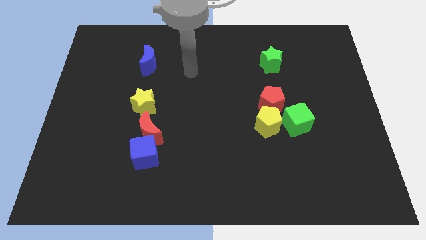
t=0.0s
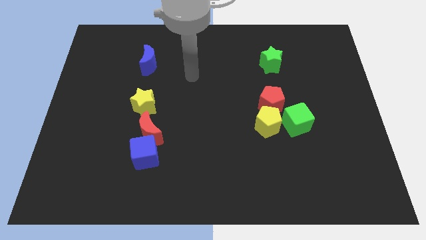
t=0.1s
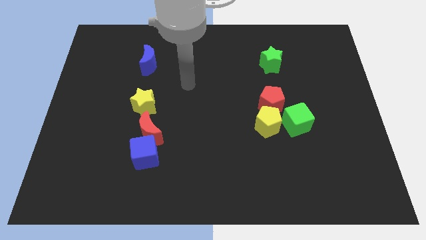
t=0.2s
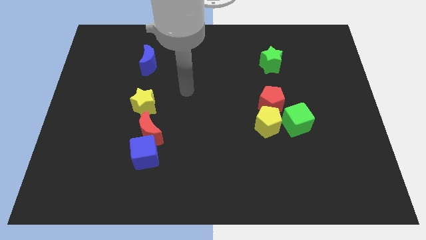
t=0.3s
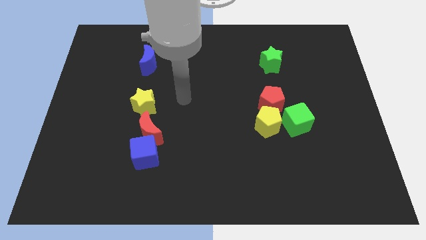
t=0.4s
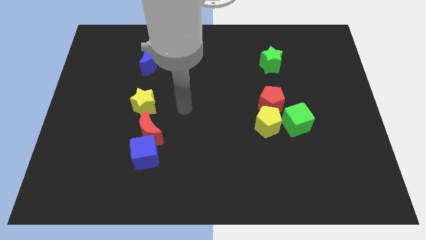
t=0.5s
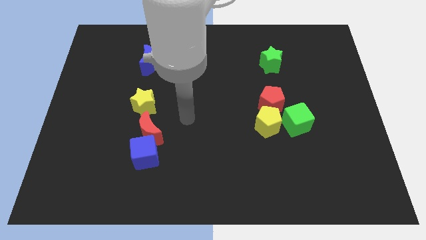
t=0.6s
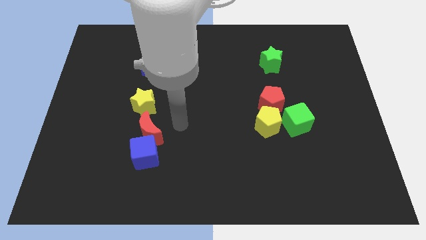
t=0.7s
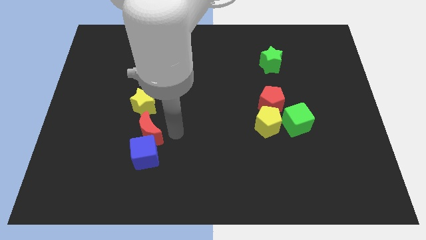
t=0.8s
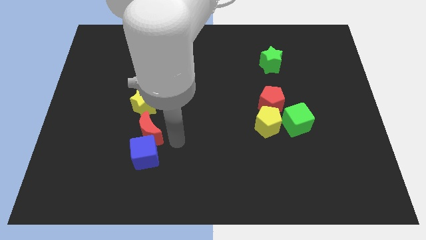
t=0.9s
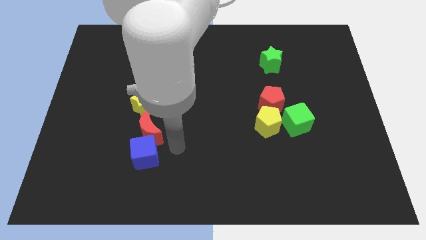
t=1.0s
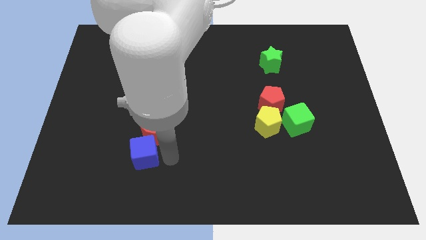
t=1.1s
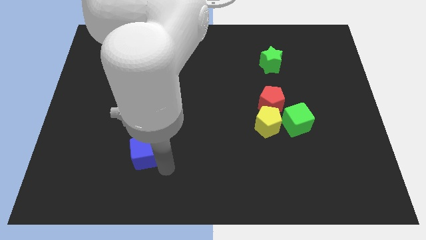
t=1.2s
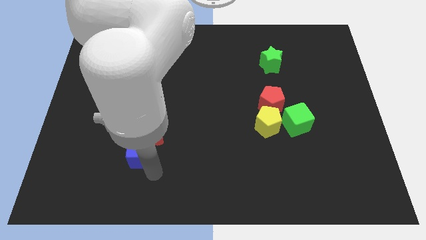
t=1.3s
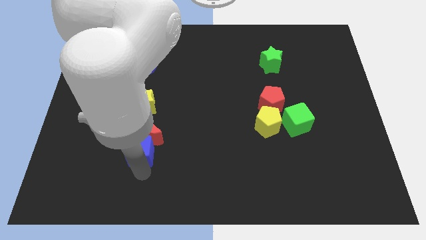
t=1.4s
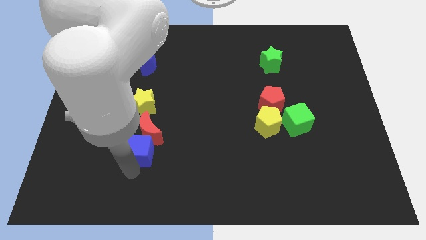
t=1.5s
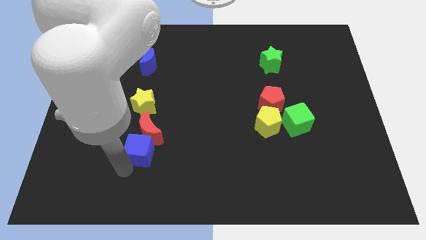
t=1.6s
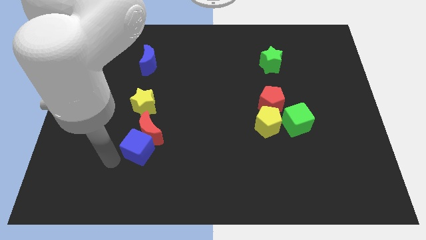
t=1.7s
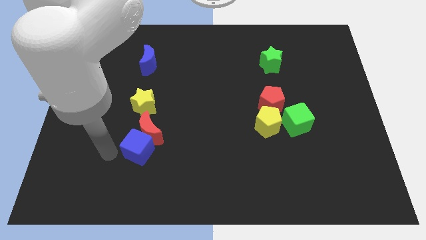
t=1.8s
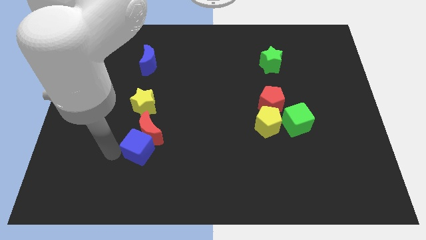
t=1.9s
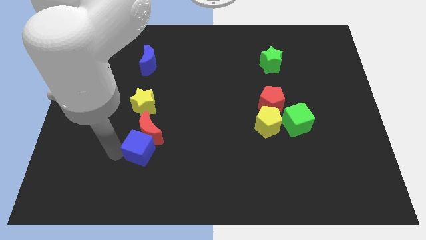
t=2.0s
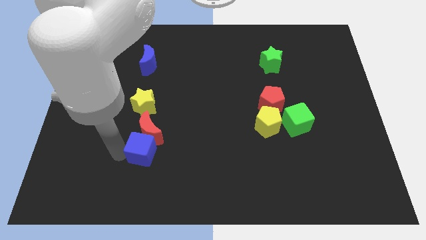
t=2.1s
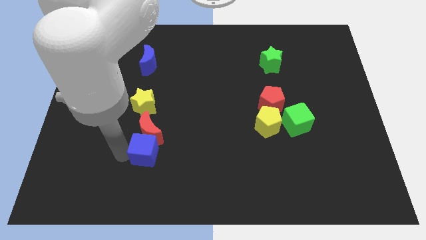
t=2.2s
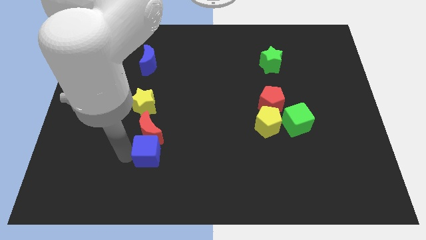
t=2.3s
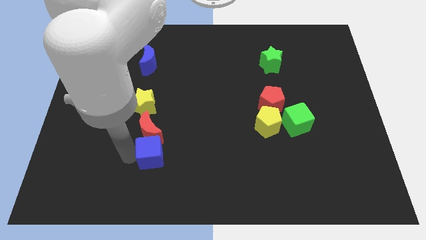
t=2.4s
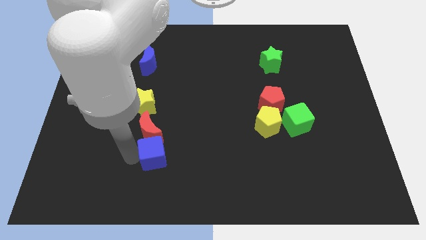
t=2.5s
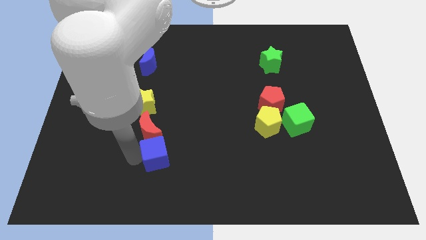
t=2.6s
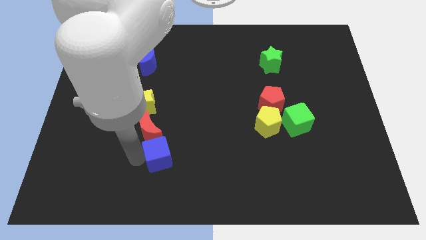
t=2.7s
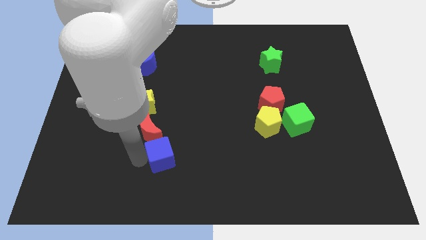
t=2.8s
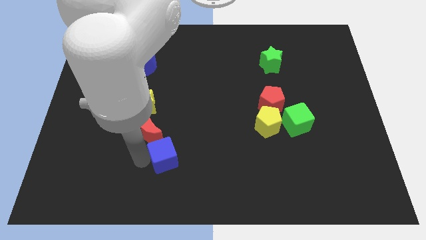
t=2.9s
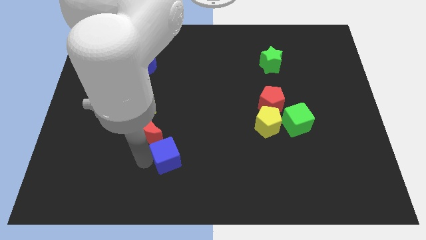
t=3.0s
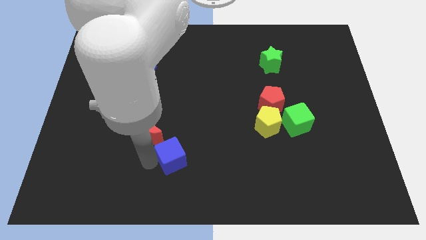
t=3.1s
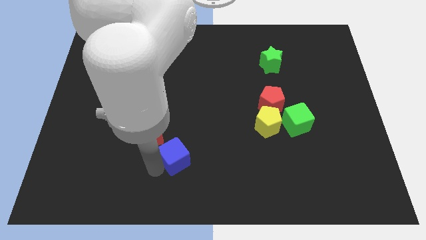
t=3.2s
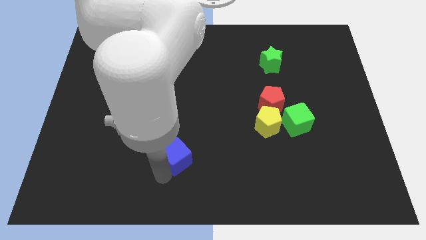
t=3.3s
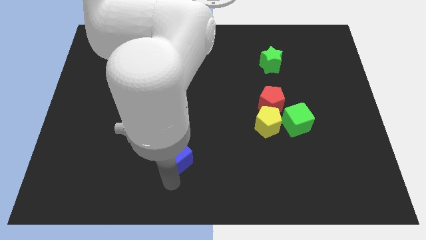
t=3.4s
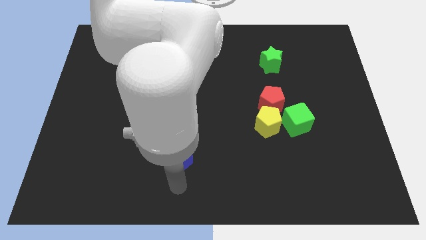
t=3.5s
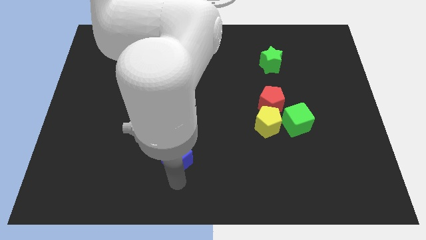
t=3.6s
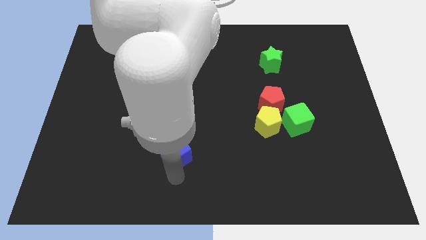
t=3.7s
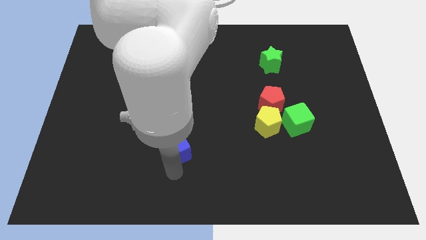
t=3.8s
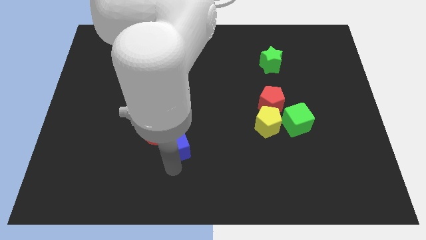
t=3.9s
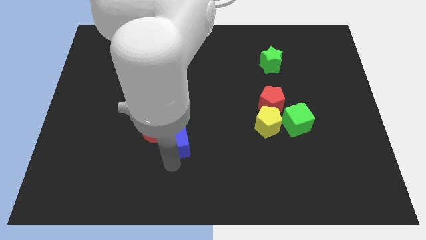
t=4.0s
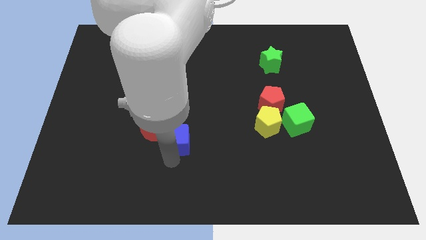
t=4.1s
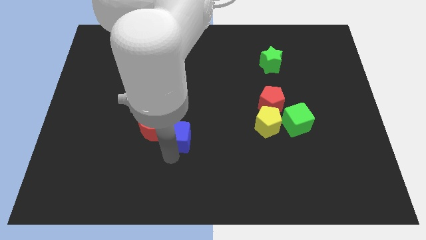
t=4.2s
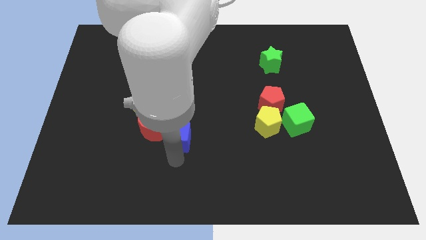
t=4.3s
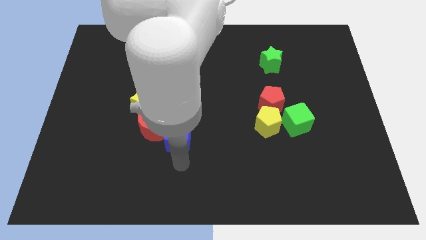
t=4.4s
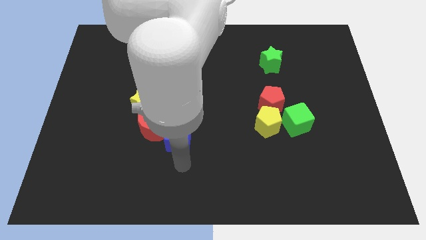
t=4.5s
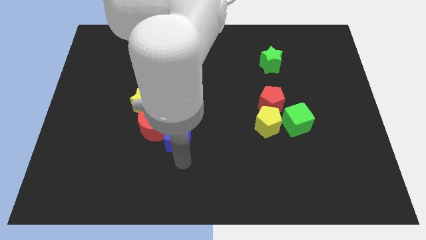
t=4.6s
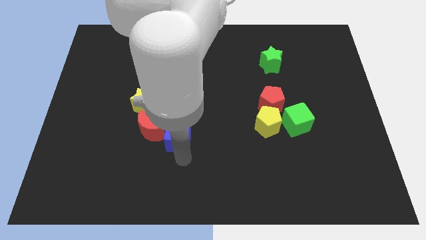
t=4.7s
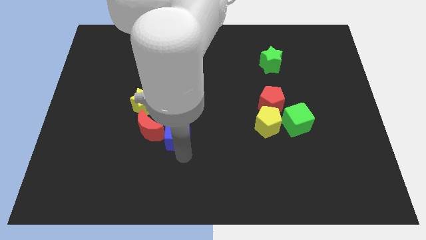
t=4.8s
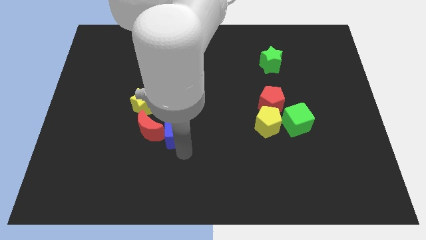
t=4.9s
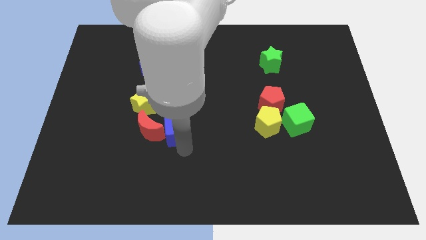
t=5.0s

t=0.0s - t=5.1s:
push the blue cube to the top right of the red moon

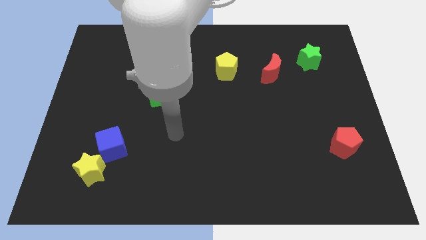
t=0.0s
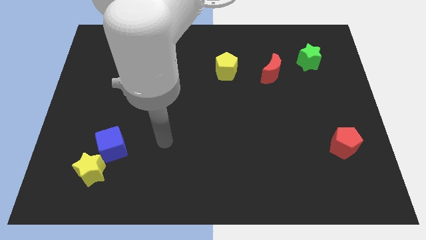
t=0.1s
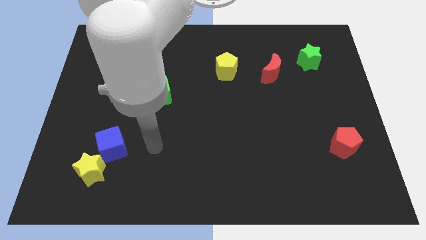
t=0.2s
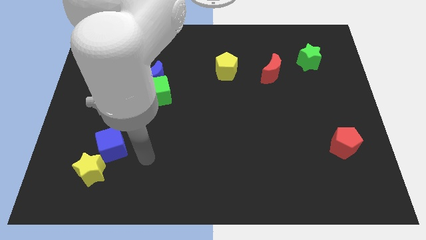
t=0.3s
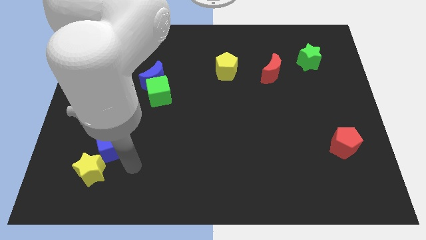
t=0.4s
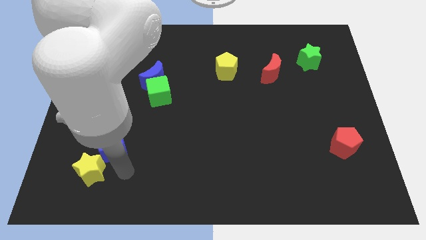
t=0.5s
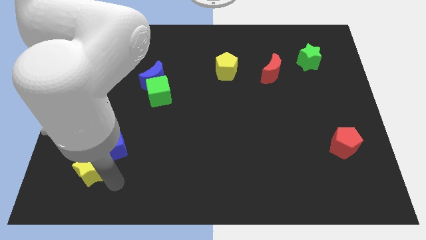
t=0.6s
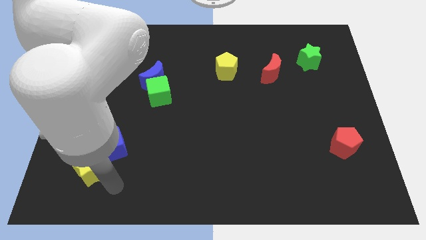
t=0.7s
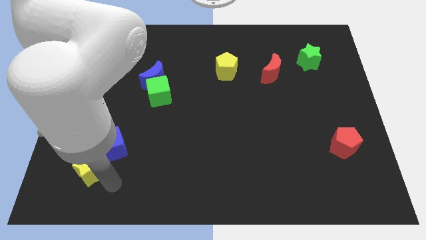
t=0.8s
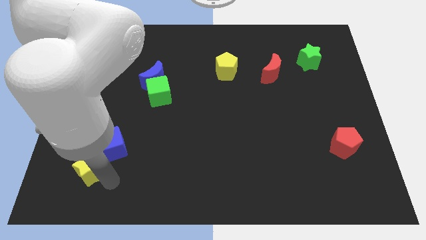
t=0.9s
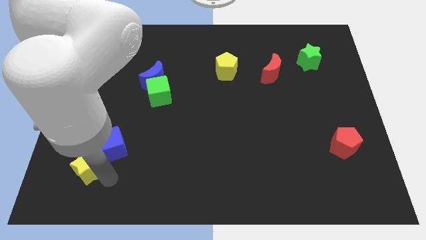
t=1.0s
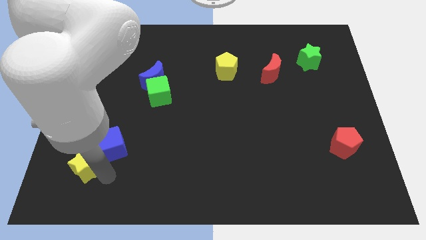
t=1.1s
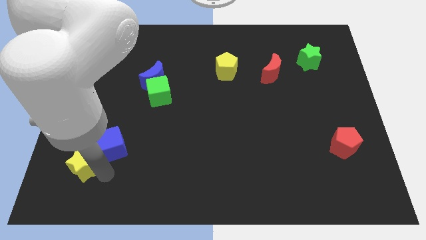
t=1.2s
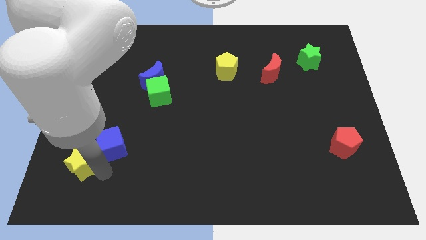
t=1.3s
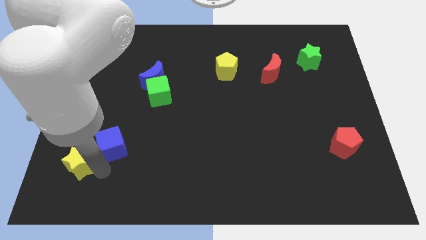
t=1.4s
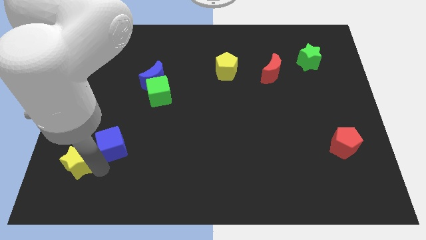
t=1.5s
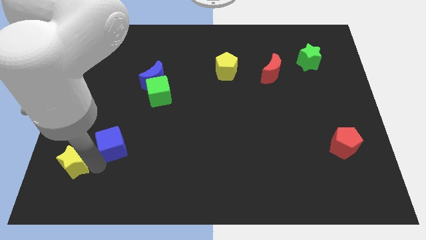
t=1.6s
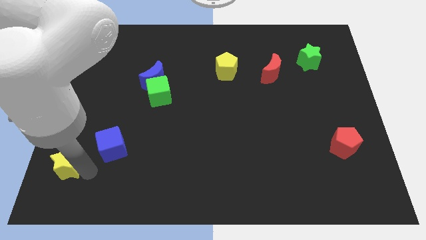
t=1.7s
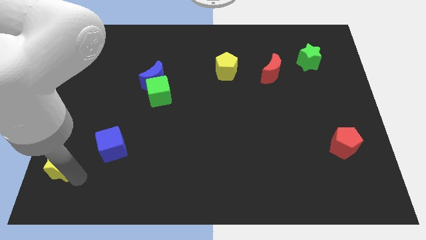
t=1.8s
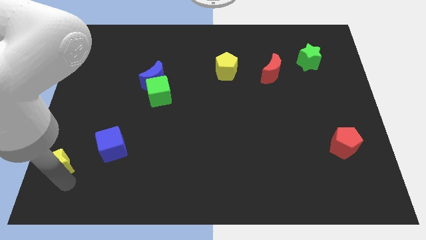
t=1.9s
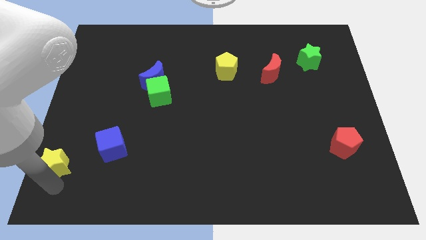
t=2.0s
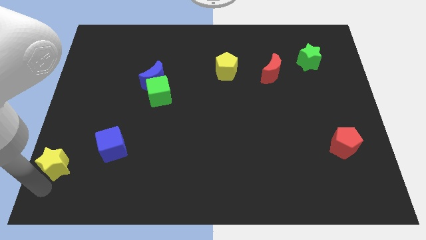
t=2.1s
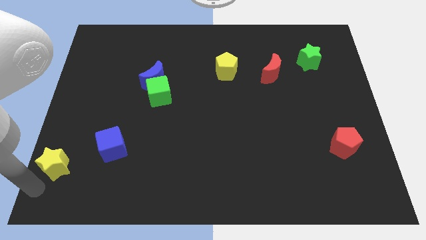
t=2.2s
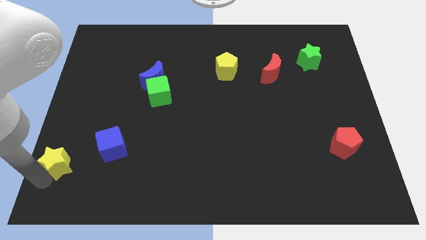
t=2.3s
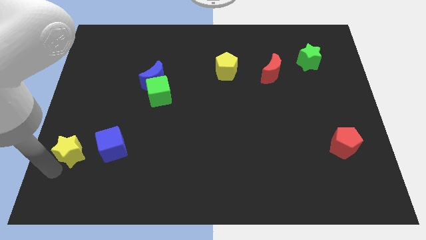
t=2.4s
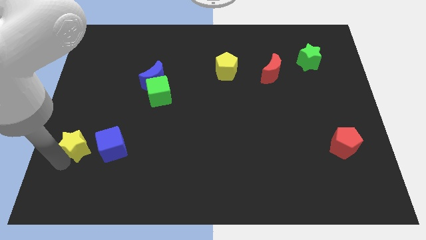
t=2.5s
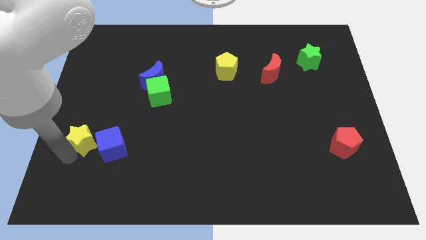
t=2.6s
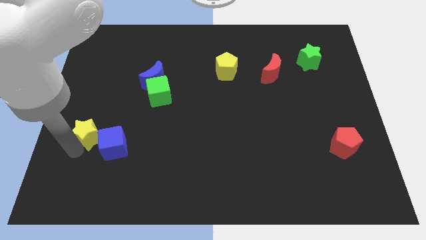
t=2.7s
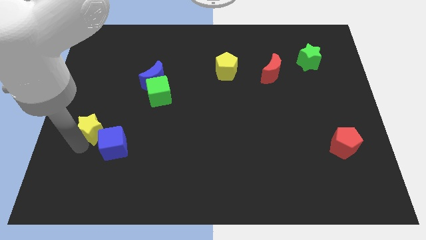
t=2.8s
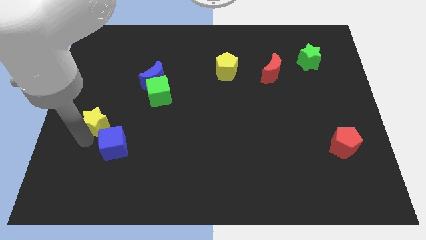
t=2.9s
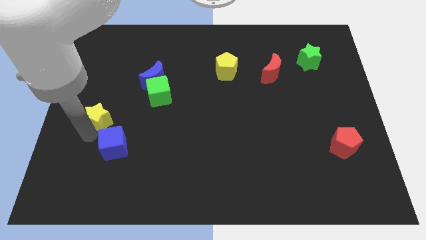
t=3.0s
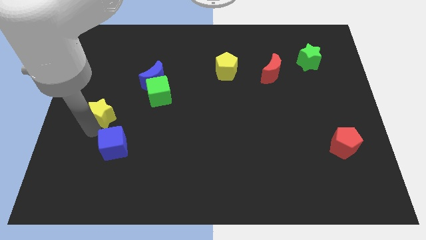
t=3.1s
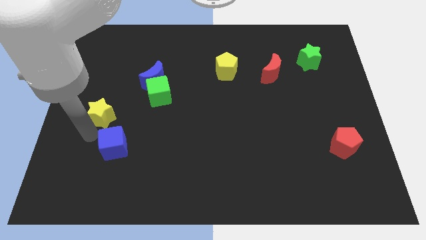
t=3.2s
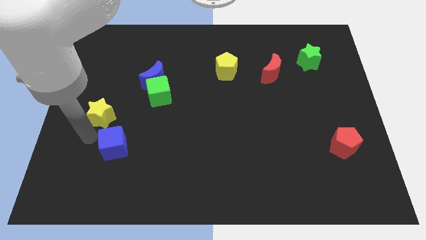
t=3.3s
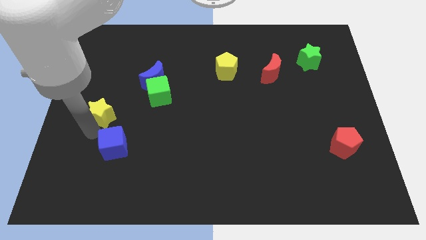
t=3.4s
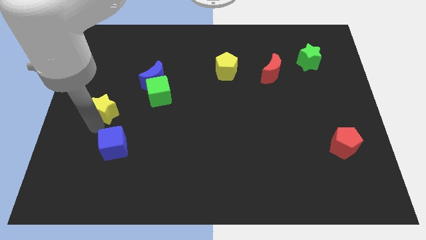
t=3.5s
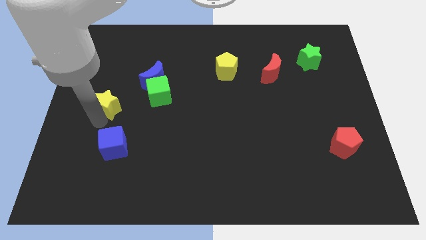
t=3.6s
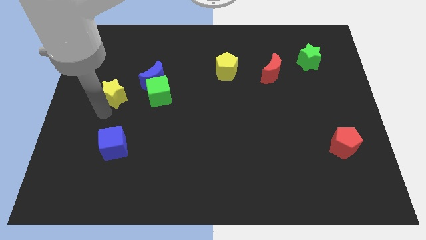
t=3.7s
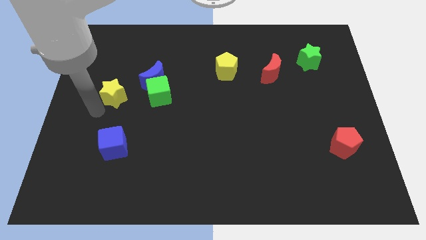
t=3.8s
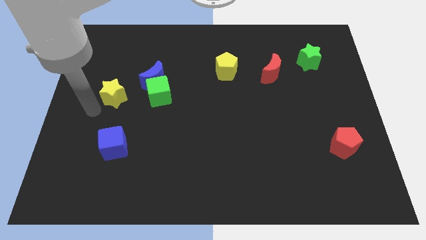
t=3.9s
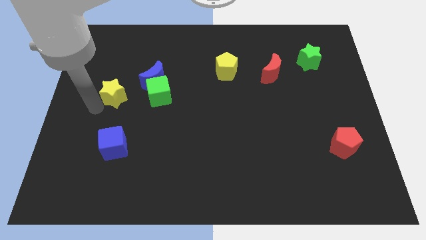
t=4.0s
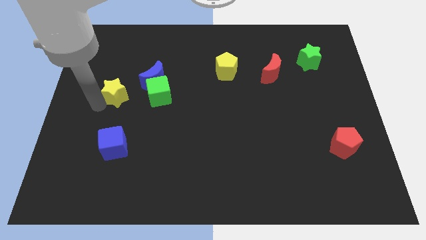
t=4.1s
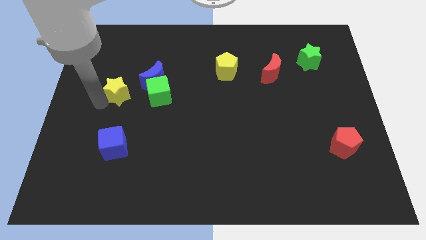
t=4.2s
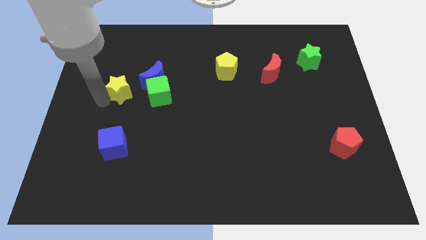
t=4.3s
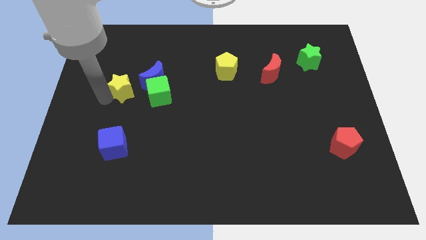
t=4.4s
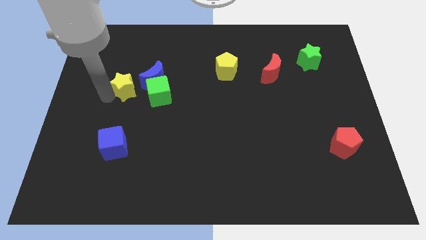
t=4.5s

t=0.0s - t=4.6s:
push the yellow star to the top left side of the green cube
